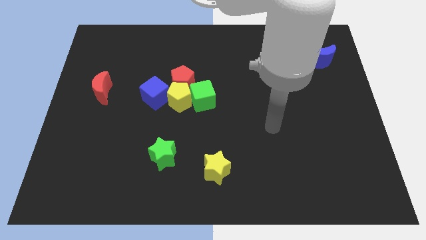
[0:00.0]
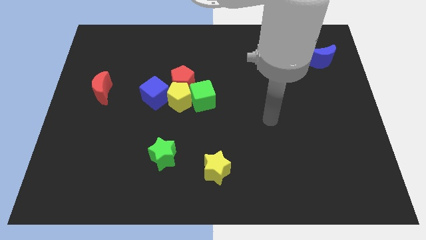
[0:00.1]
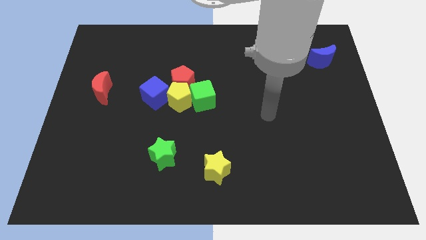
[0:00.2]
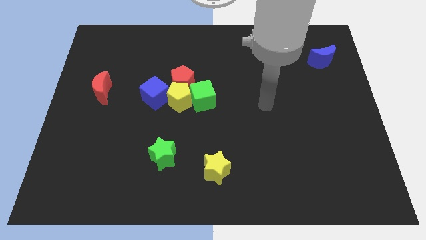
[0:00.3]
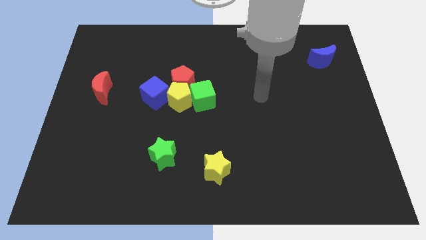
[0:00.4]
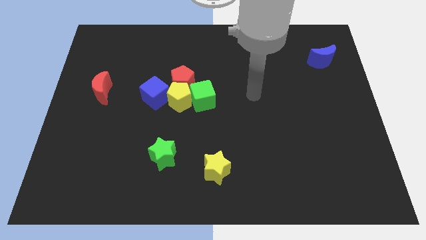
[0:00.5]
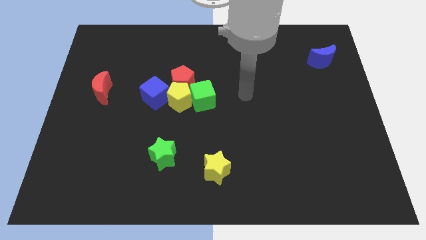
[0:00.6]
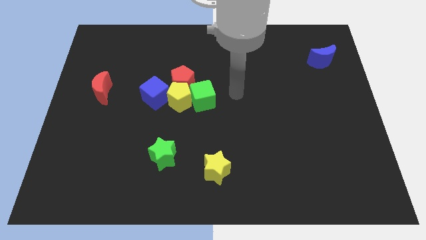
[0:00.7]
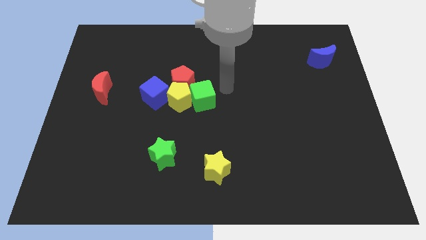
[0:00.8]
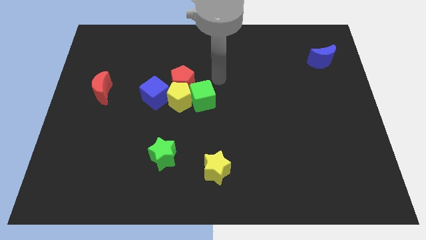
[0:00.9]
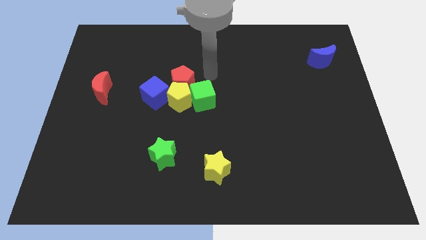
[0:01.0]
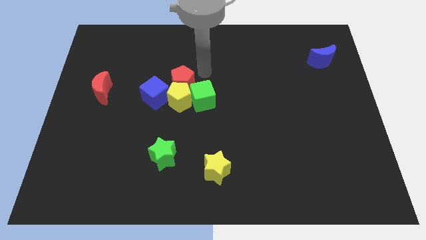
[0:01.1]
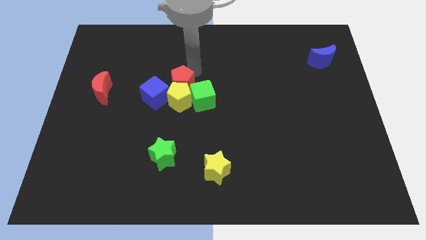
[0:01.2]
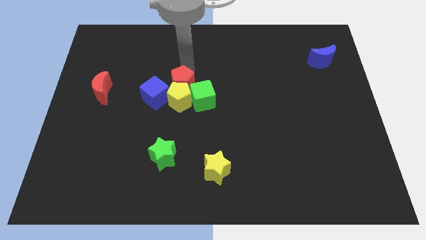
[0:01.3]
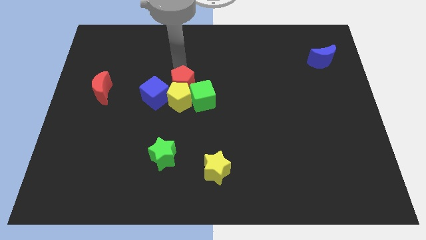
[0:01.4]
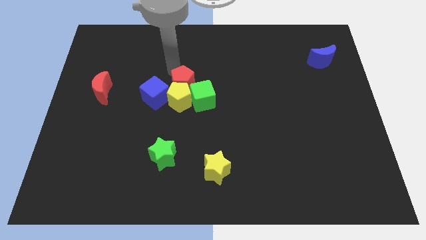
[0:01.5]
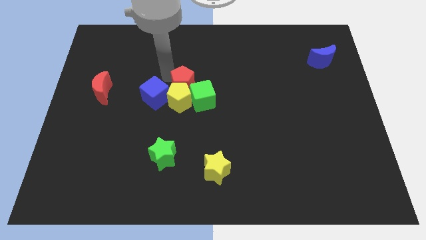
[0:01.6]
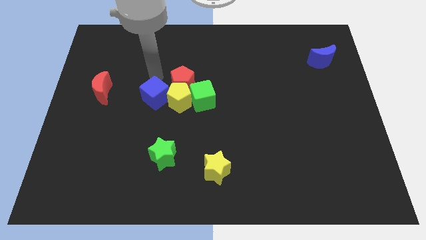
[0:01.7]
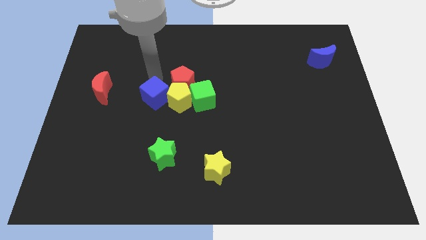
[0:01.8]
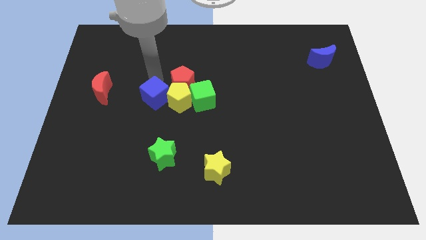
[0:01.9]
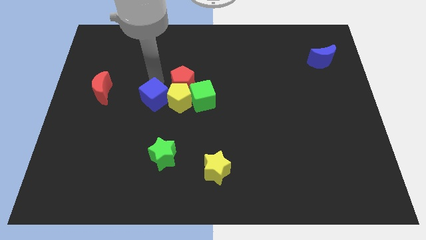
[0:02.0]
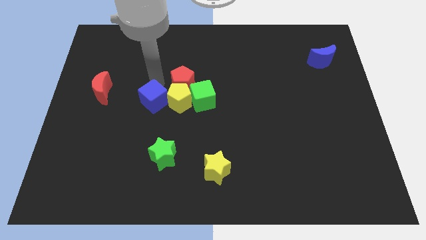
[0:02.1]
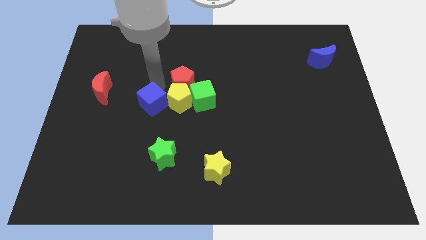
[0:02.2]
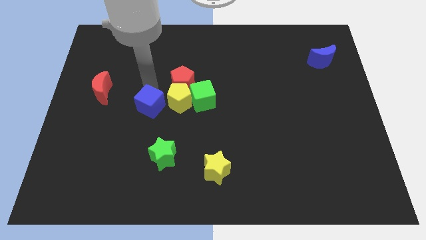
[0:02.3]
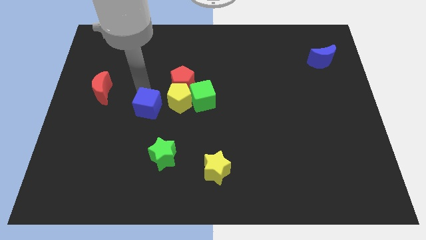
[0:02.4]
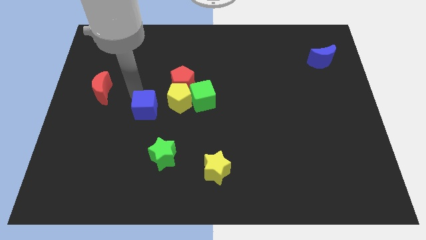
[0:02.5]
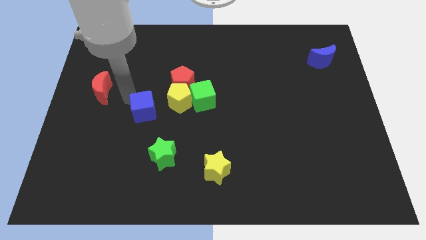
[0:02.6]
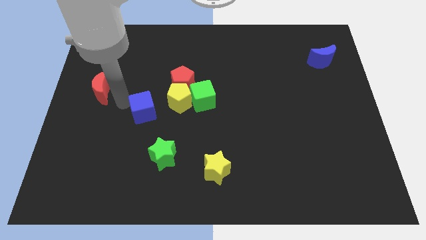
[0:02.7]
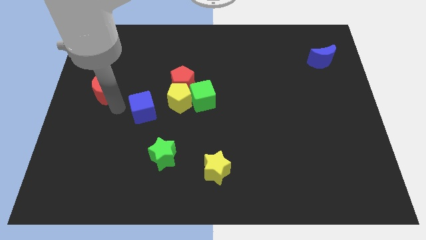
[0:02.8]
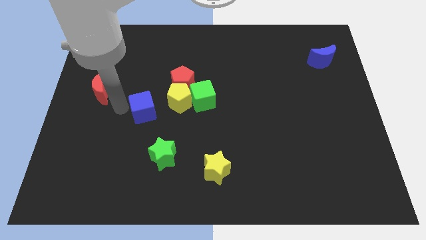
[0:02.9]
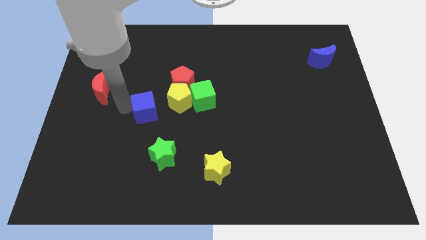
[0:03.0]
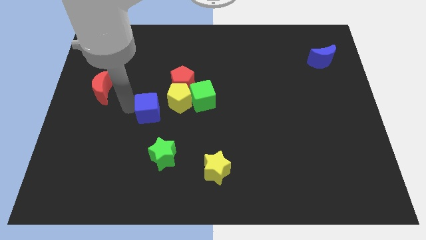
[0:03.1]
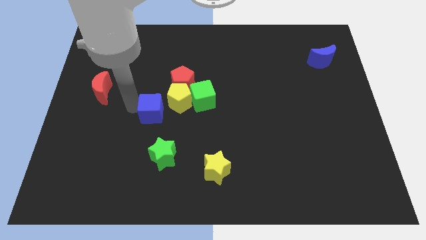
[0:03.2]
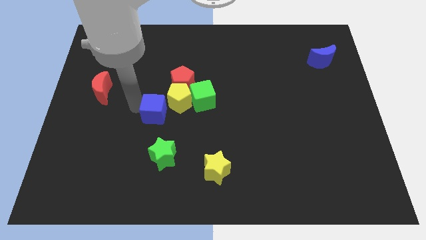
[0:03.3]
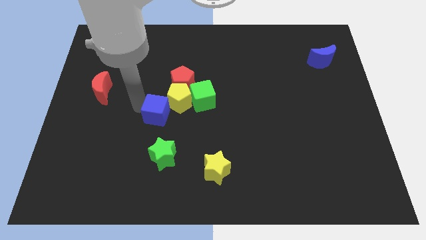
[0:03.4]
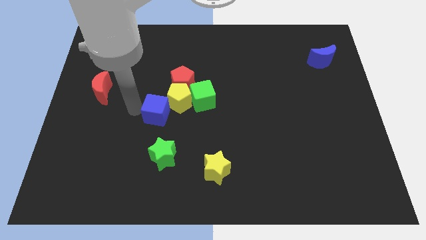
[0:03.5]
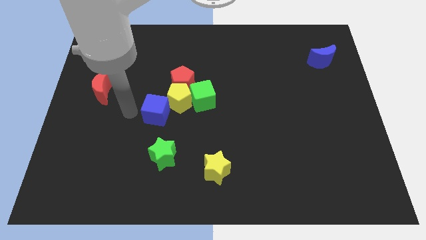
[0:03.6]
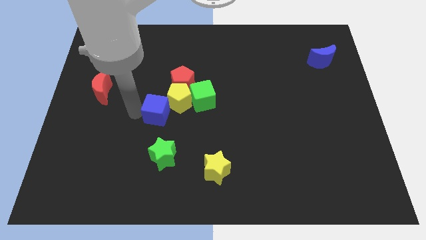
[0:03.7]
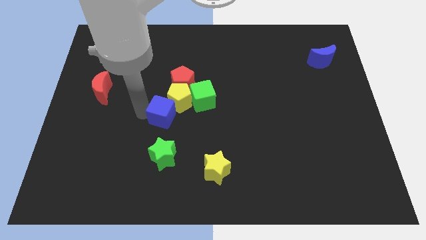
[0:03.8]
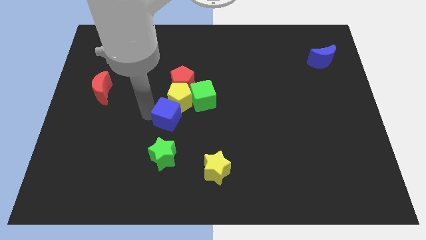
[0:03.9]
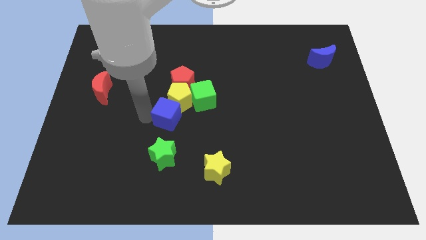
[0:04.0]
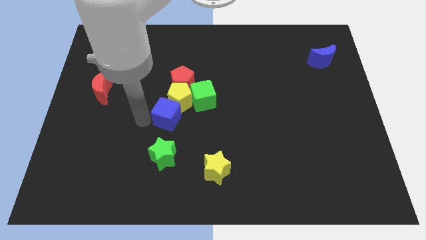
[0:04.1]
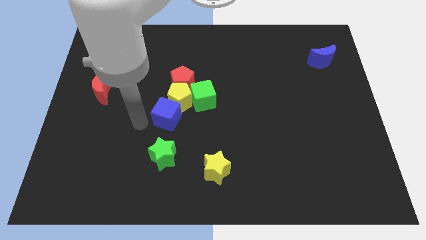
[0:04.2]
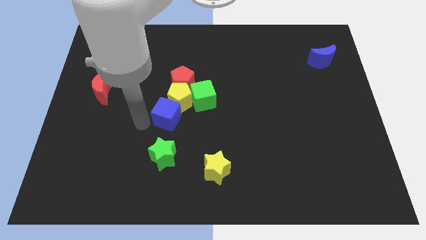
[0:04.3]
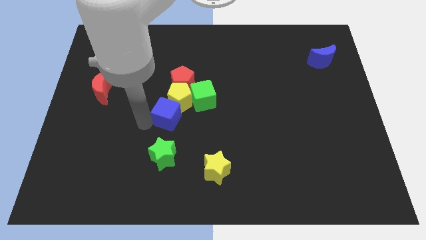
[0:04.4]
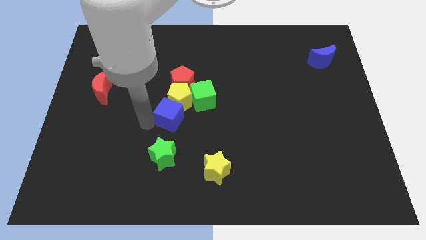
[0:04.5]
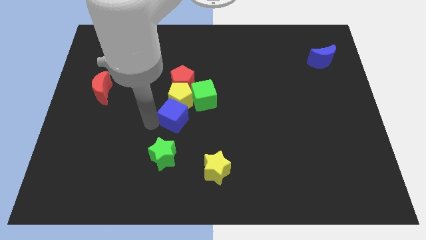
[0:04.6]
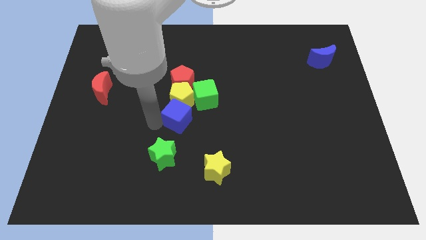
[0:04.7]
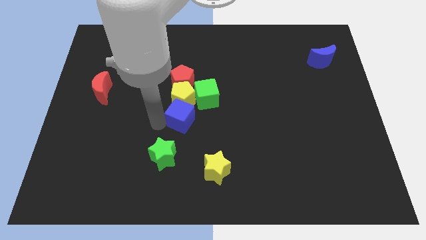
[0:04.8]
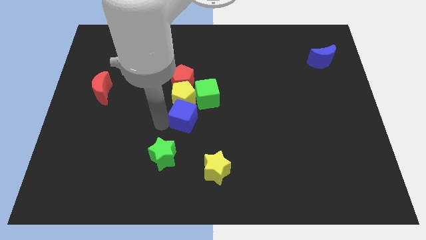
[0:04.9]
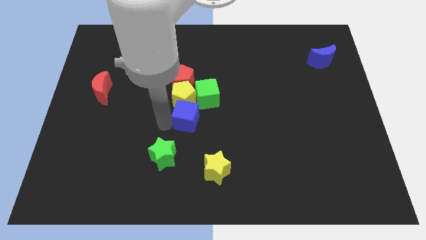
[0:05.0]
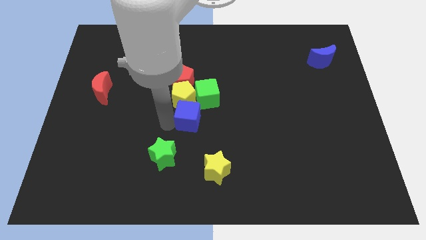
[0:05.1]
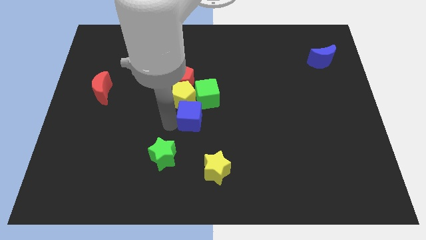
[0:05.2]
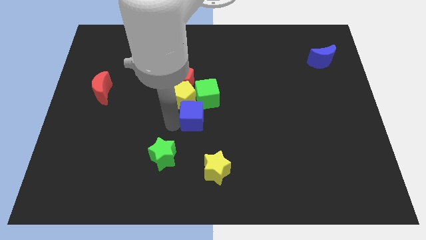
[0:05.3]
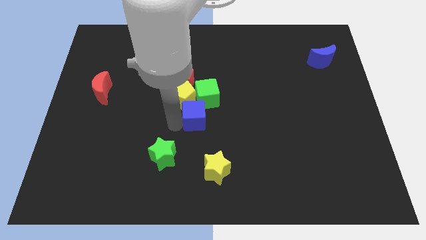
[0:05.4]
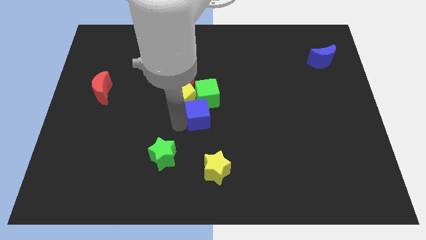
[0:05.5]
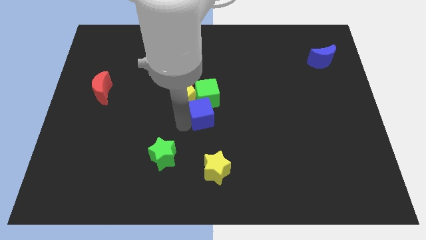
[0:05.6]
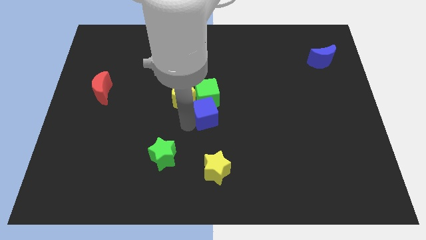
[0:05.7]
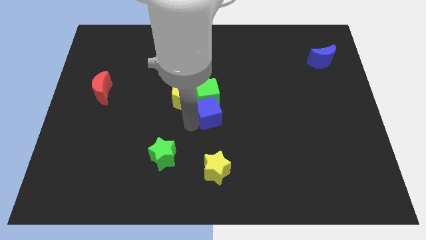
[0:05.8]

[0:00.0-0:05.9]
put the blue cube to the right of the yellow pentagon

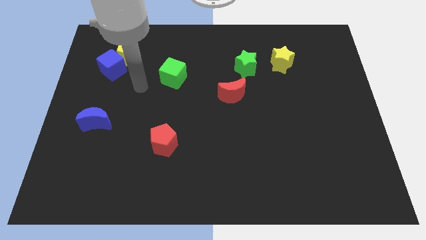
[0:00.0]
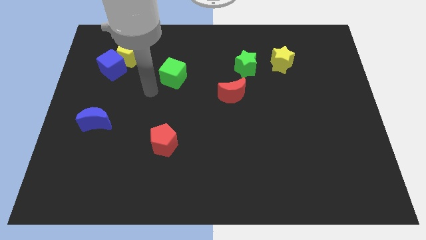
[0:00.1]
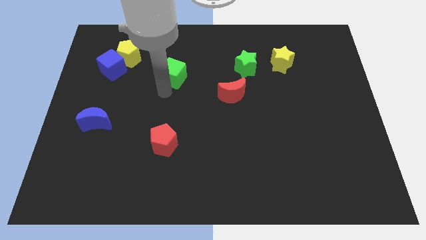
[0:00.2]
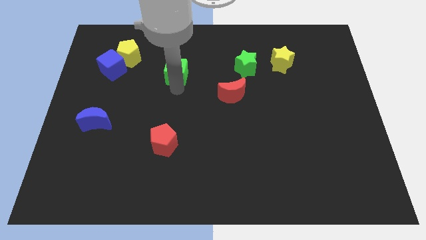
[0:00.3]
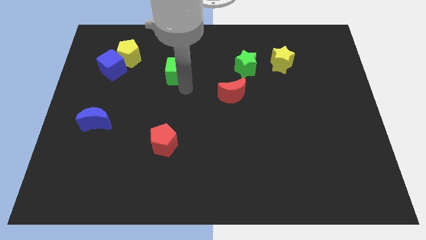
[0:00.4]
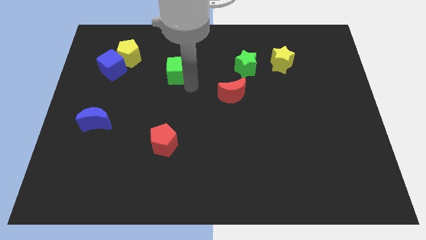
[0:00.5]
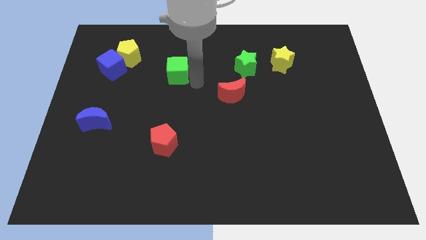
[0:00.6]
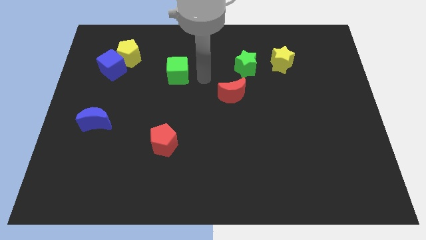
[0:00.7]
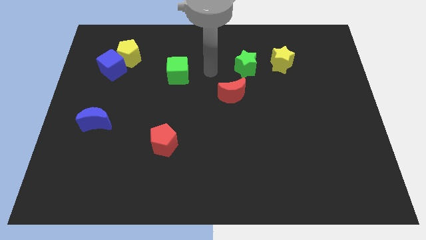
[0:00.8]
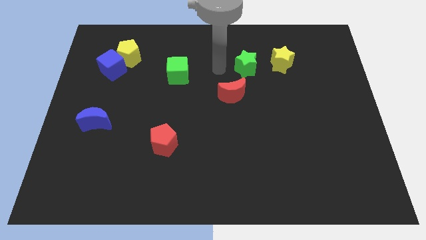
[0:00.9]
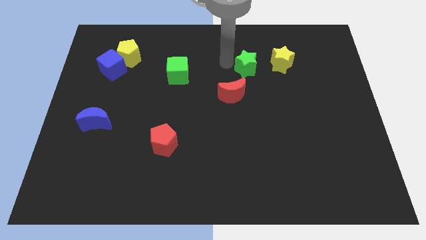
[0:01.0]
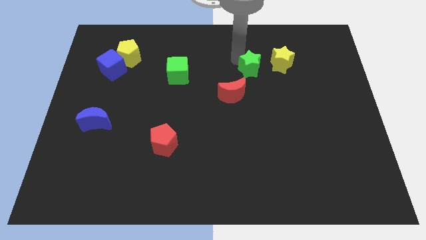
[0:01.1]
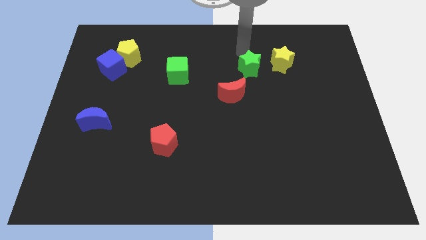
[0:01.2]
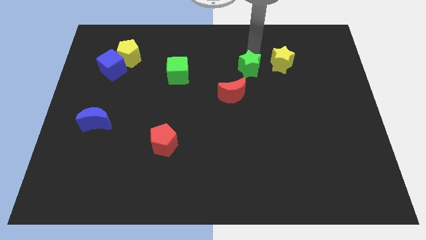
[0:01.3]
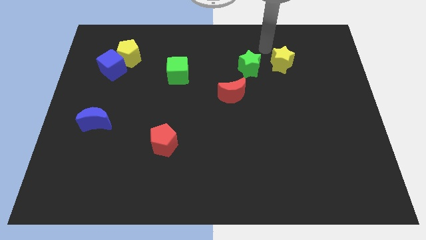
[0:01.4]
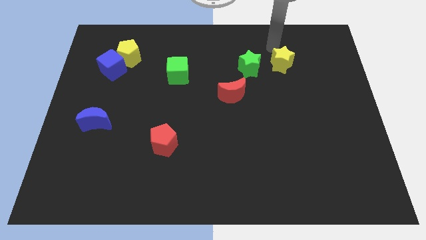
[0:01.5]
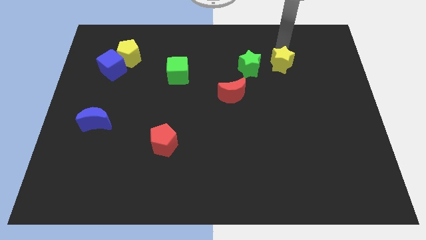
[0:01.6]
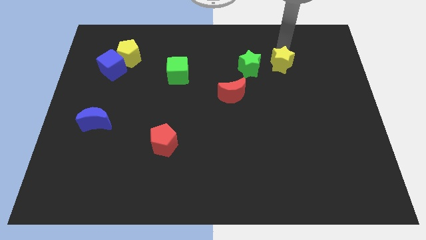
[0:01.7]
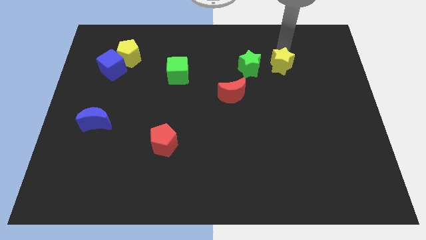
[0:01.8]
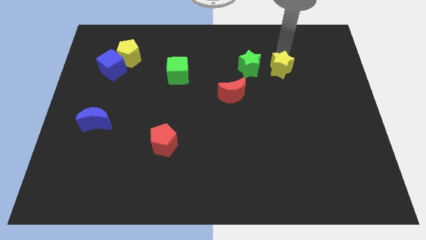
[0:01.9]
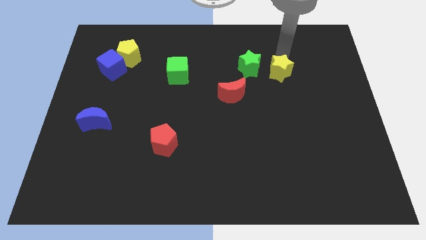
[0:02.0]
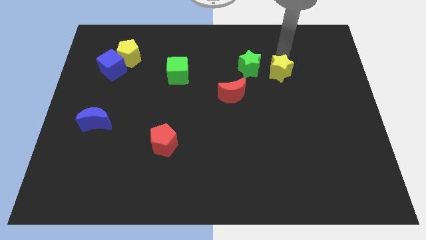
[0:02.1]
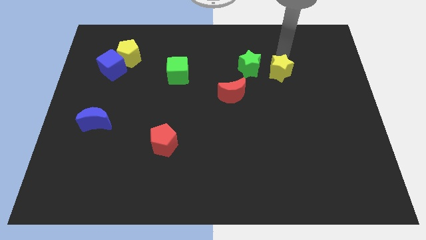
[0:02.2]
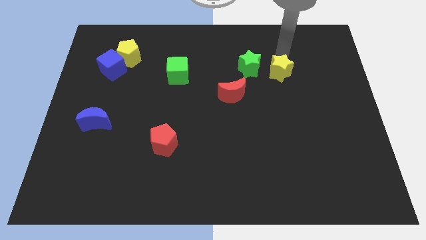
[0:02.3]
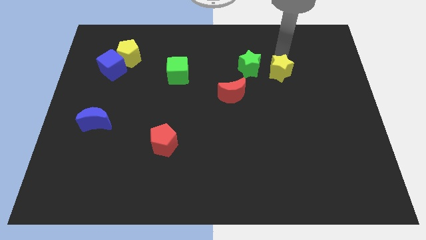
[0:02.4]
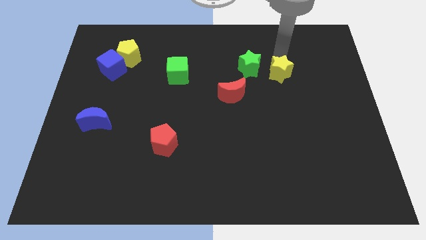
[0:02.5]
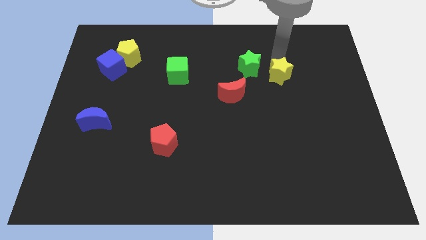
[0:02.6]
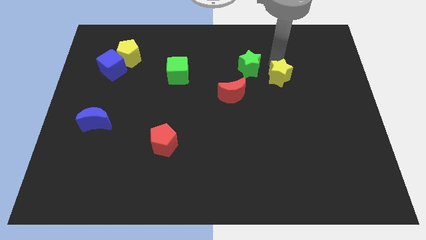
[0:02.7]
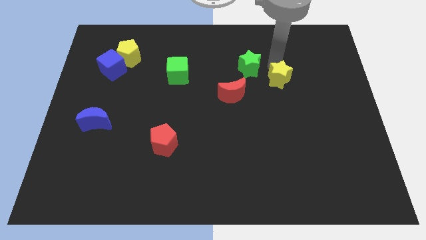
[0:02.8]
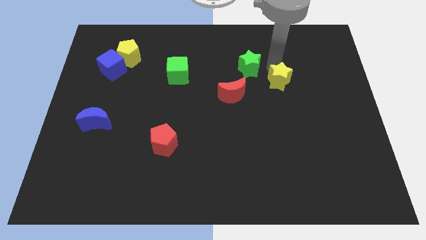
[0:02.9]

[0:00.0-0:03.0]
push the yellow star to the right side of the red moon
